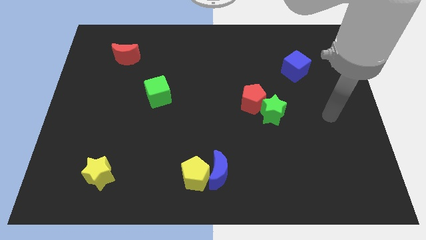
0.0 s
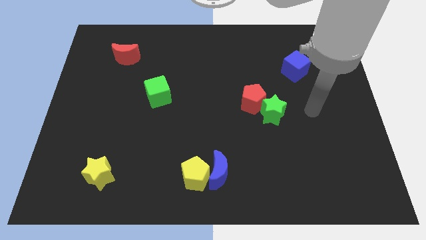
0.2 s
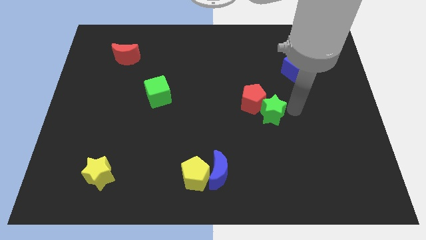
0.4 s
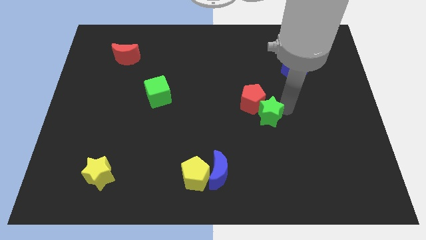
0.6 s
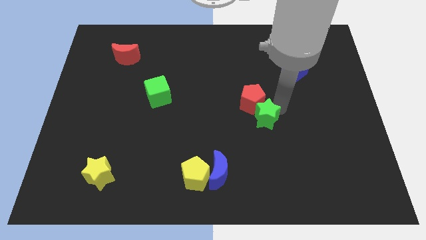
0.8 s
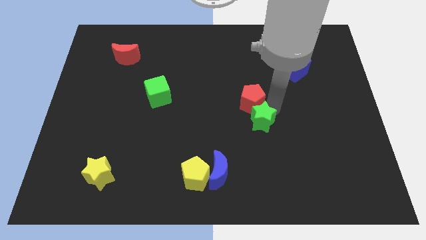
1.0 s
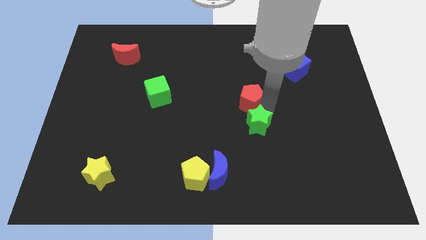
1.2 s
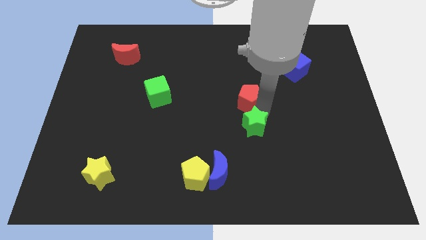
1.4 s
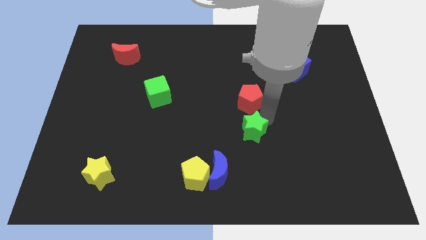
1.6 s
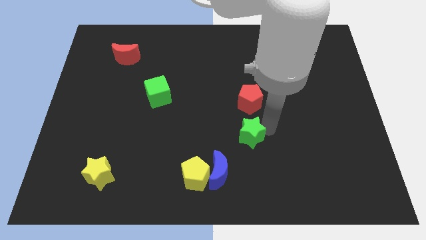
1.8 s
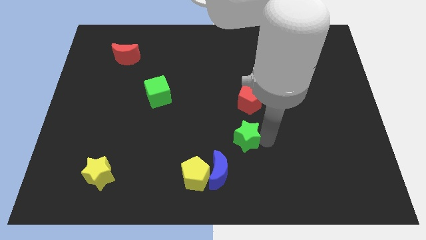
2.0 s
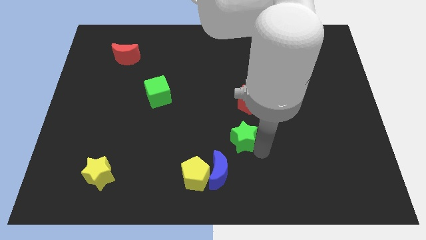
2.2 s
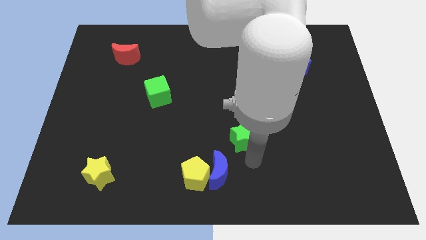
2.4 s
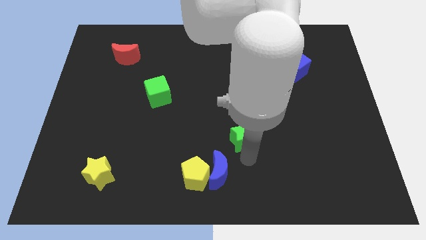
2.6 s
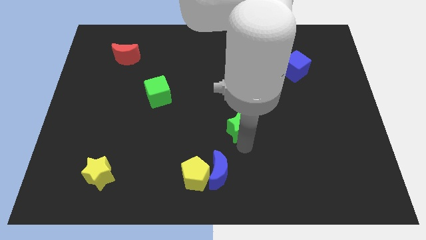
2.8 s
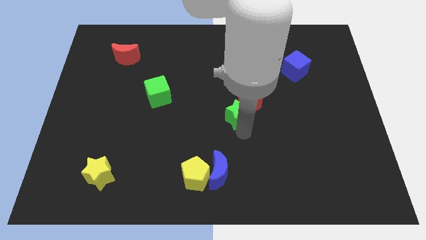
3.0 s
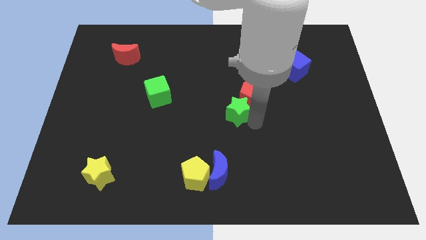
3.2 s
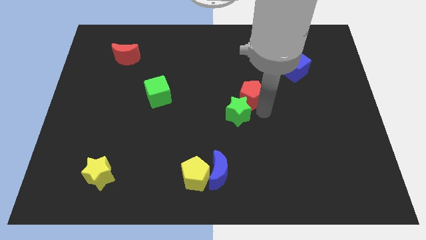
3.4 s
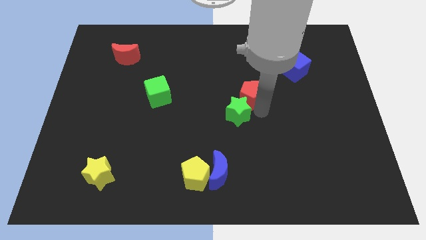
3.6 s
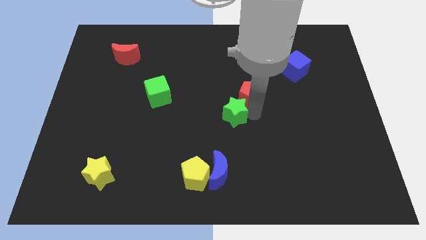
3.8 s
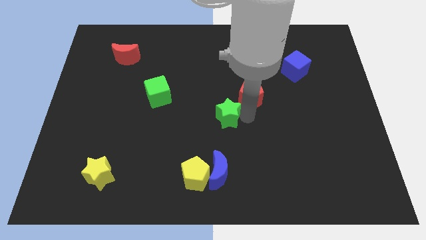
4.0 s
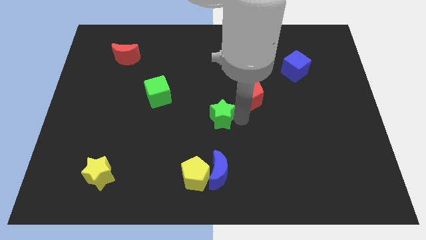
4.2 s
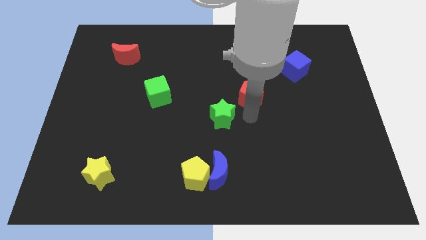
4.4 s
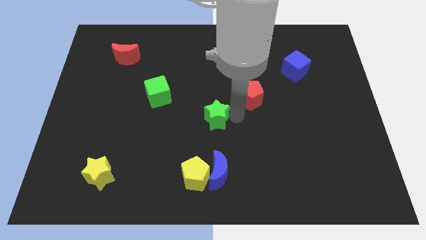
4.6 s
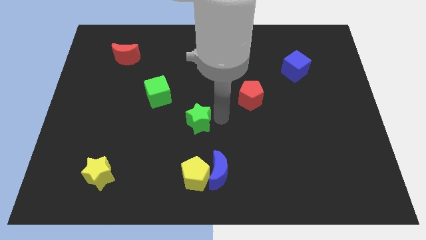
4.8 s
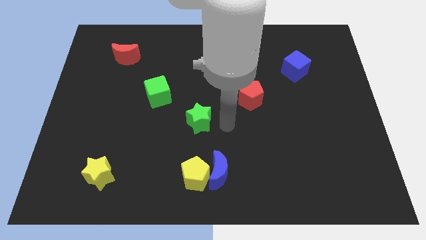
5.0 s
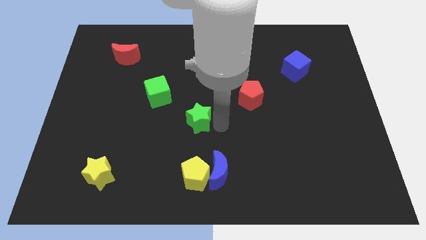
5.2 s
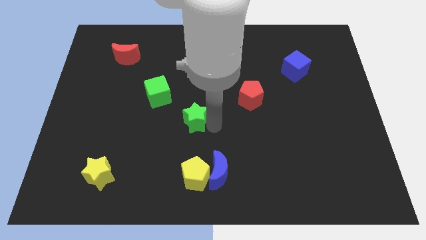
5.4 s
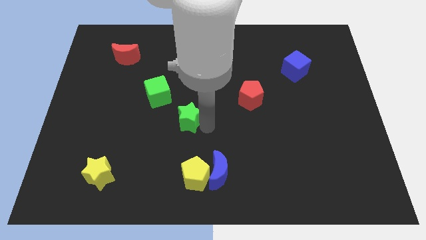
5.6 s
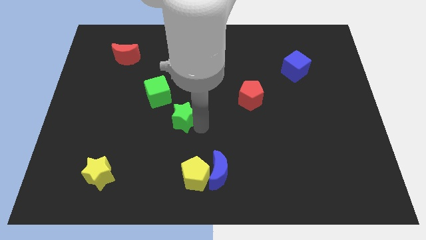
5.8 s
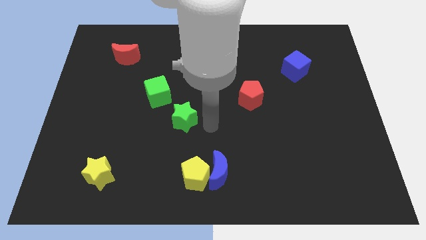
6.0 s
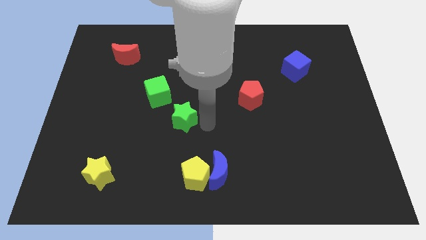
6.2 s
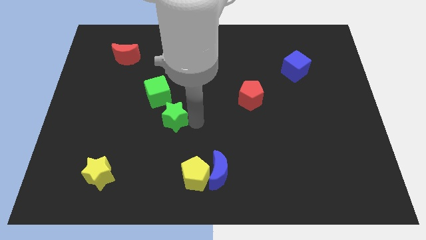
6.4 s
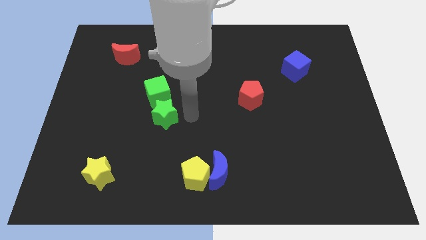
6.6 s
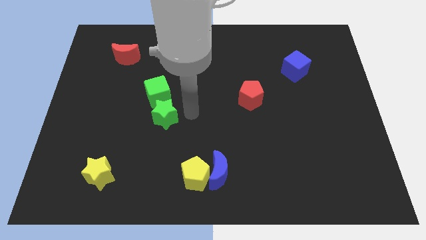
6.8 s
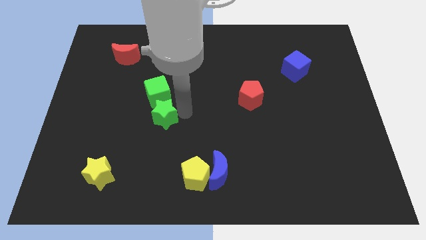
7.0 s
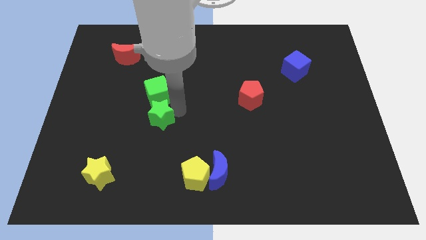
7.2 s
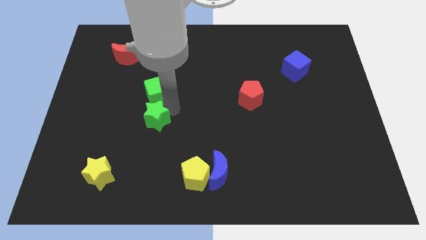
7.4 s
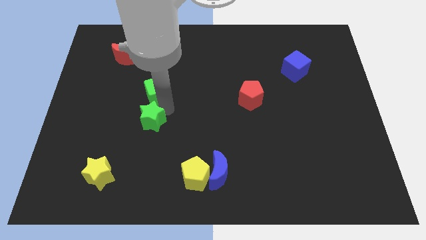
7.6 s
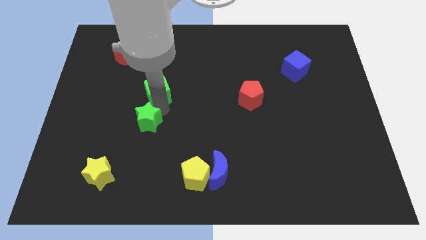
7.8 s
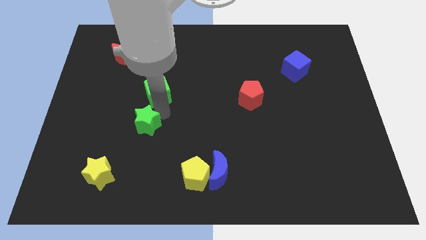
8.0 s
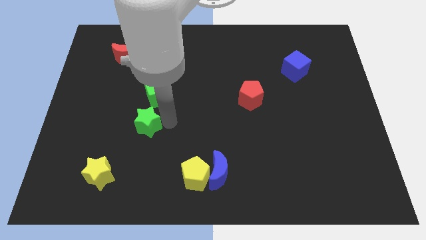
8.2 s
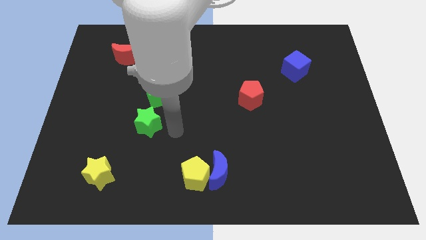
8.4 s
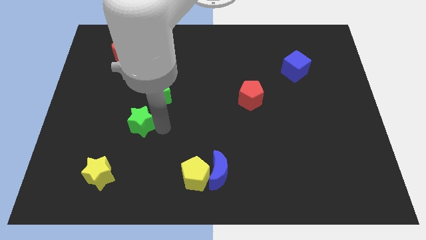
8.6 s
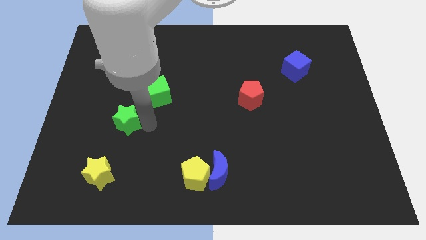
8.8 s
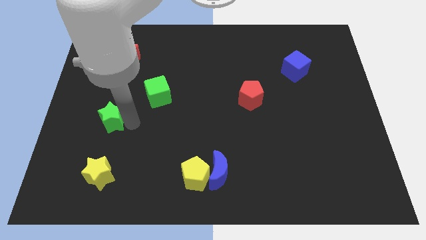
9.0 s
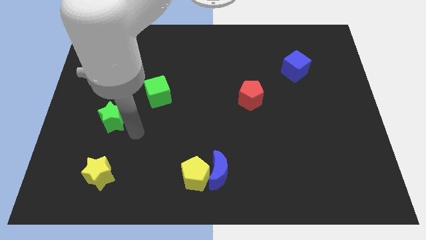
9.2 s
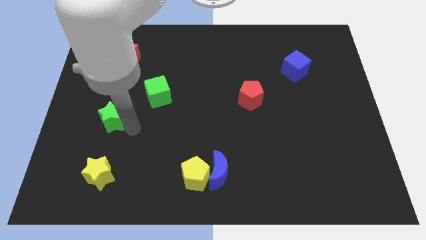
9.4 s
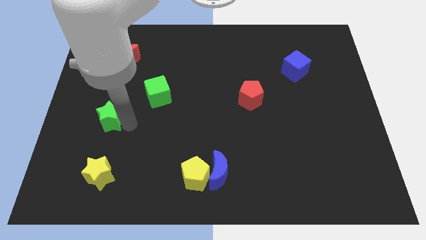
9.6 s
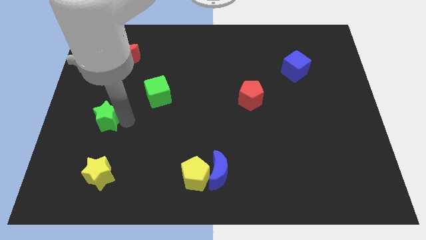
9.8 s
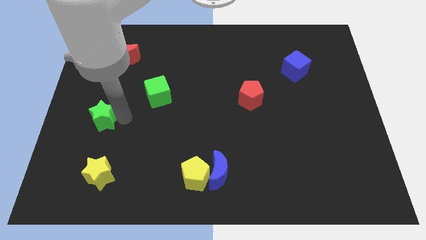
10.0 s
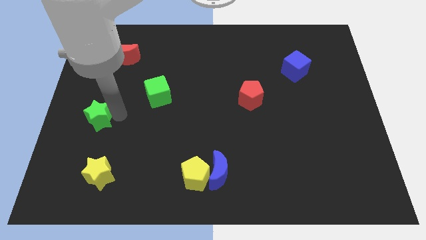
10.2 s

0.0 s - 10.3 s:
put the green star to the center left

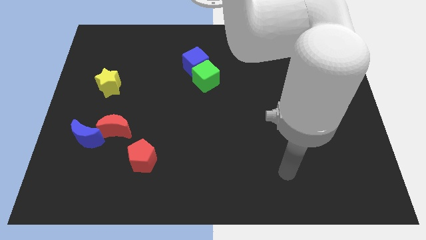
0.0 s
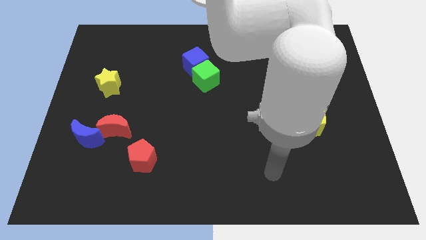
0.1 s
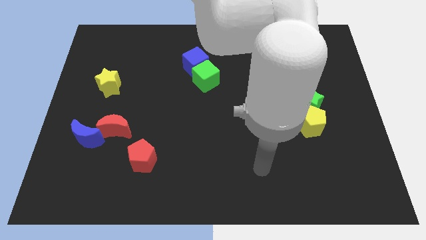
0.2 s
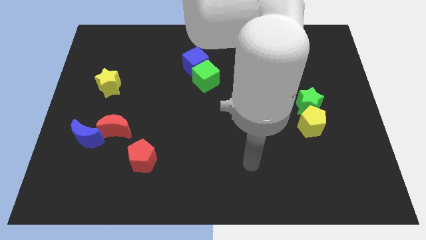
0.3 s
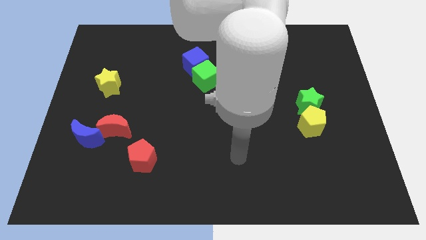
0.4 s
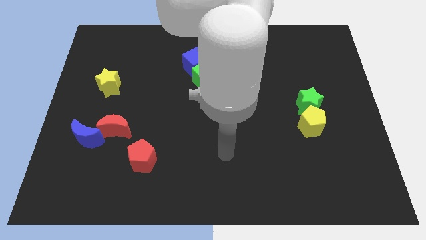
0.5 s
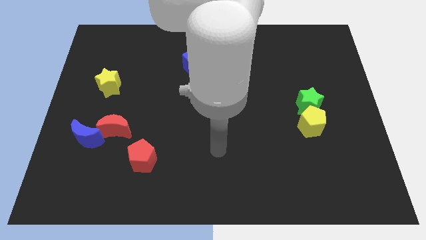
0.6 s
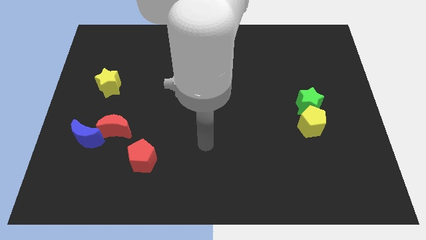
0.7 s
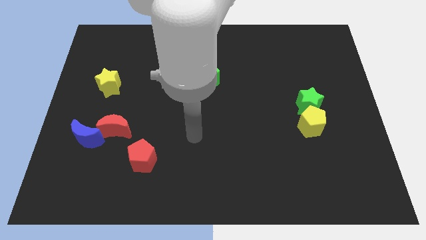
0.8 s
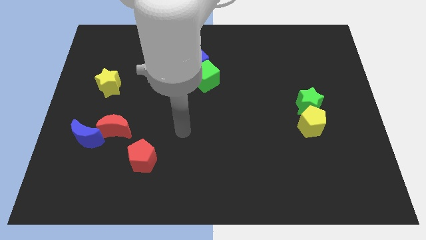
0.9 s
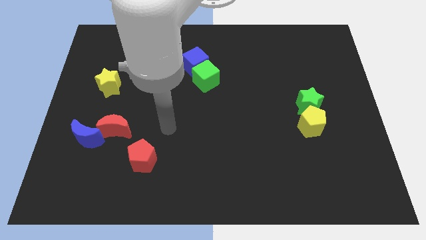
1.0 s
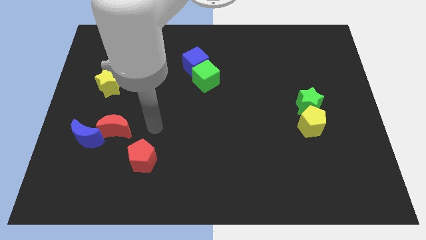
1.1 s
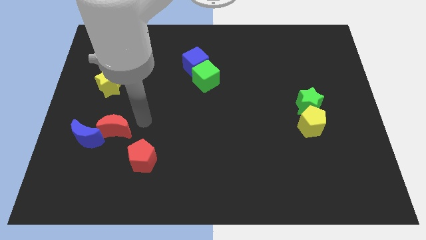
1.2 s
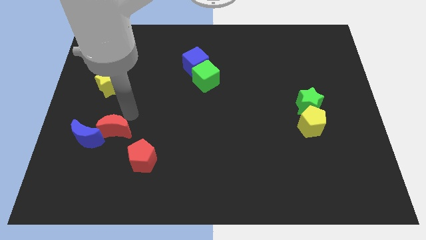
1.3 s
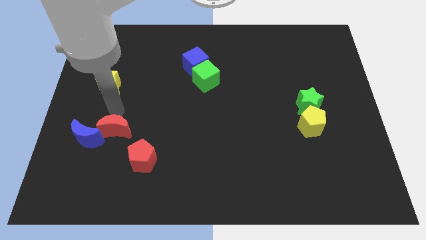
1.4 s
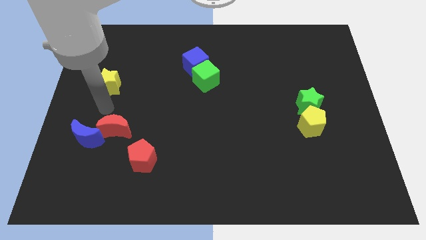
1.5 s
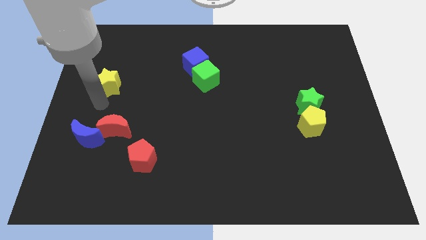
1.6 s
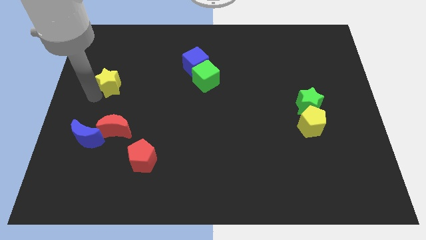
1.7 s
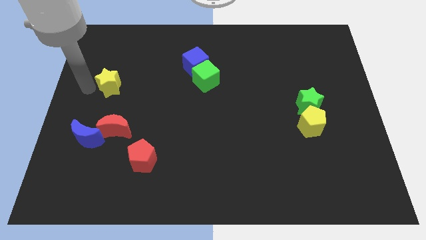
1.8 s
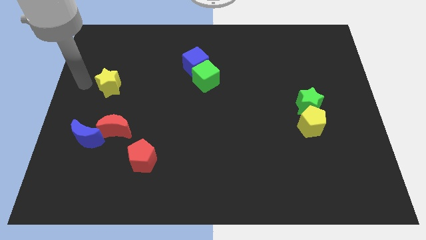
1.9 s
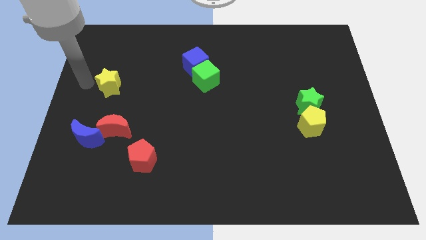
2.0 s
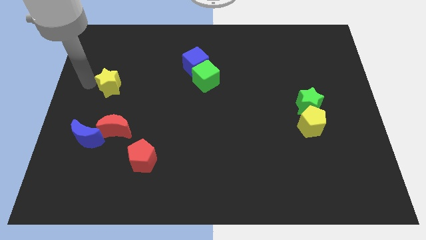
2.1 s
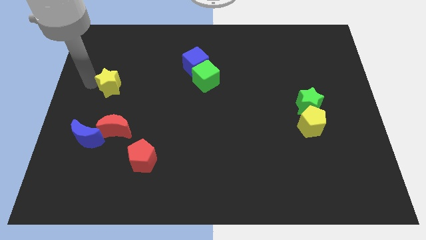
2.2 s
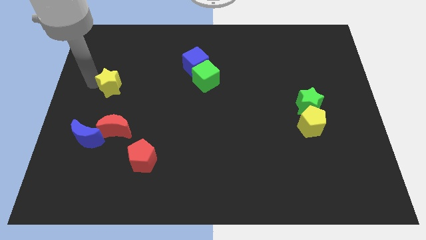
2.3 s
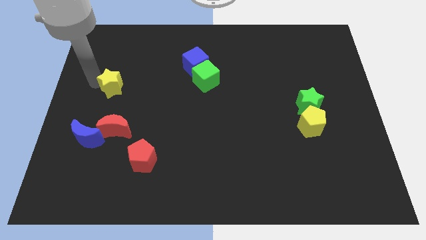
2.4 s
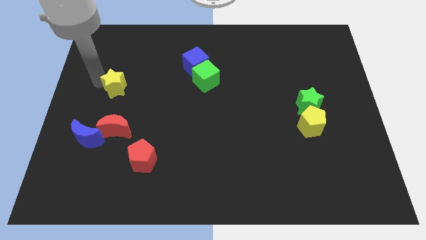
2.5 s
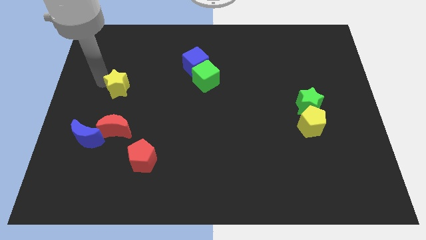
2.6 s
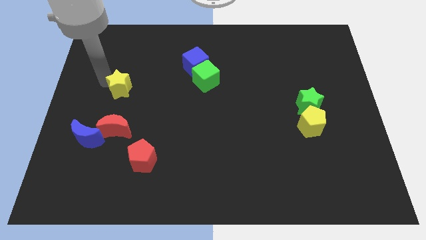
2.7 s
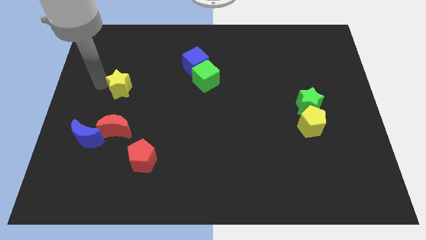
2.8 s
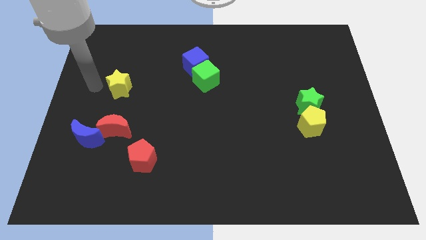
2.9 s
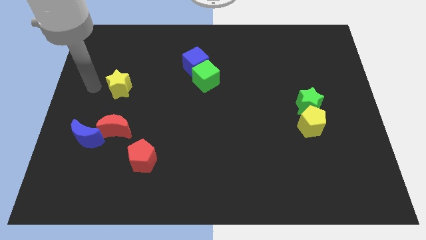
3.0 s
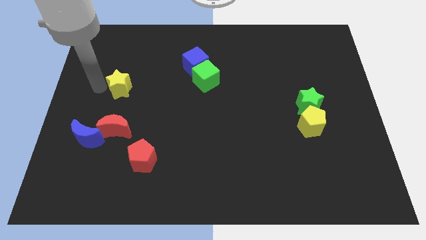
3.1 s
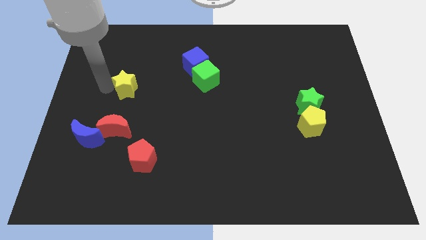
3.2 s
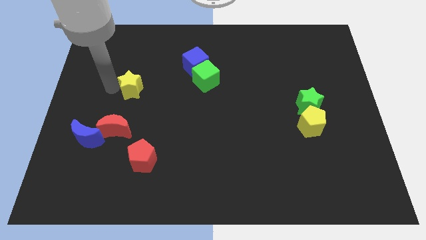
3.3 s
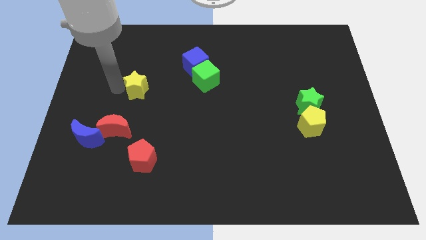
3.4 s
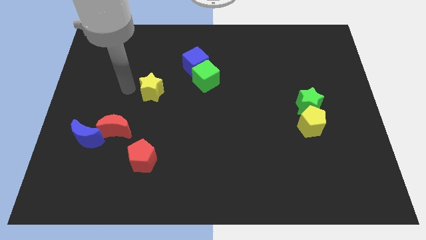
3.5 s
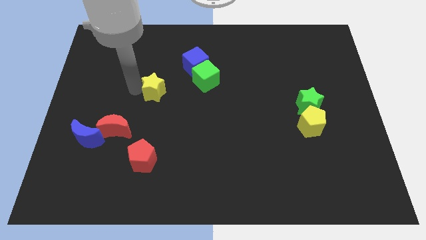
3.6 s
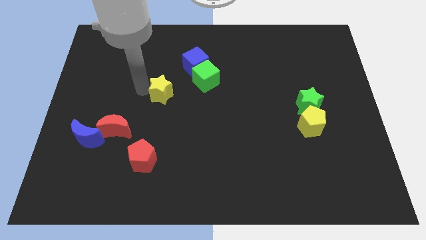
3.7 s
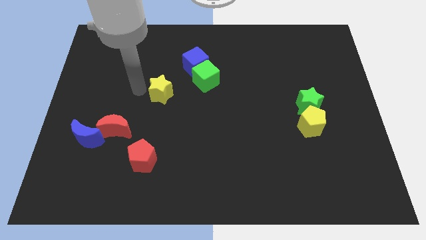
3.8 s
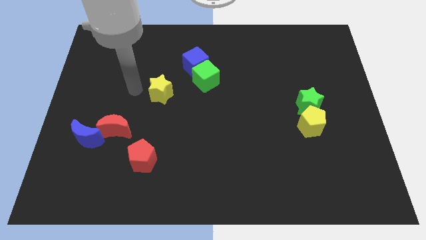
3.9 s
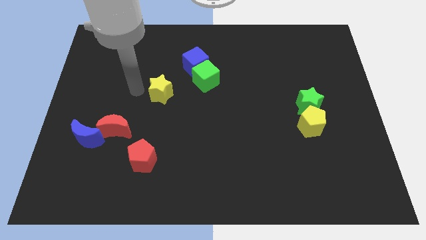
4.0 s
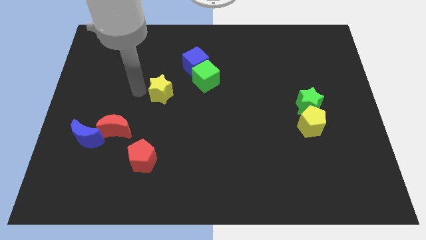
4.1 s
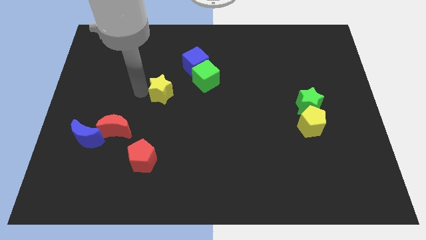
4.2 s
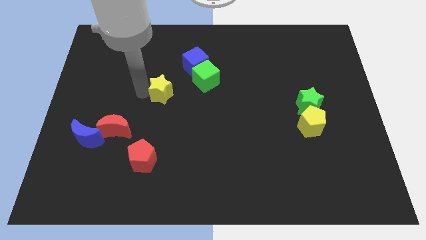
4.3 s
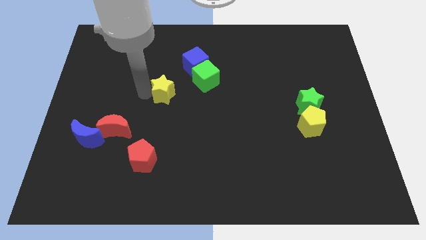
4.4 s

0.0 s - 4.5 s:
move the yellow star to the middle of the board
